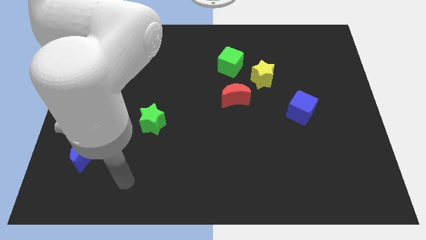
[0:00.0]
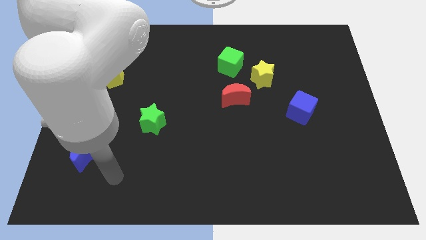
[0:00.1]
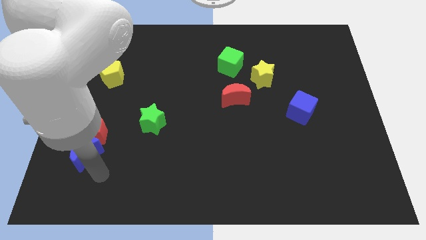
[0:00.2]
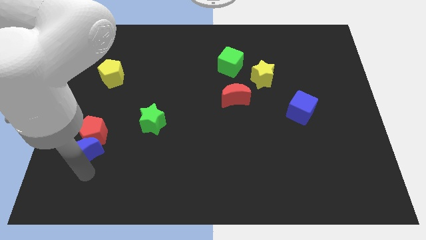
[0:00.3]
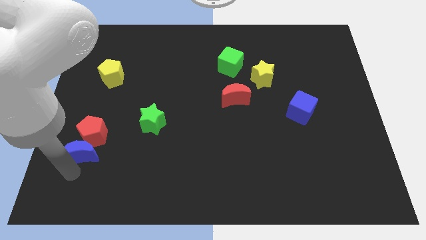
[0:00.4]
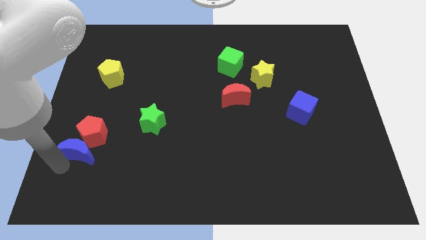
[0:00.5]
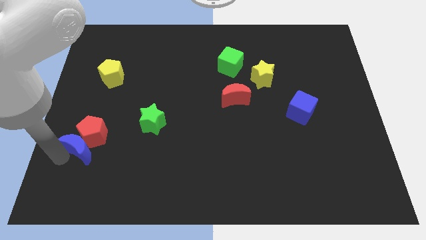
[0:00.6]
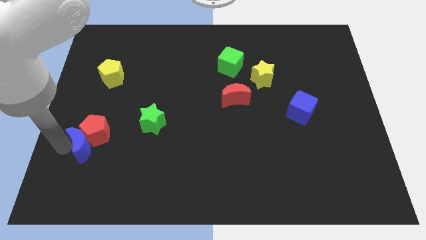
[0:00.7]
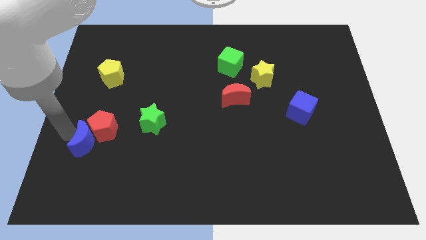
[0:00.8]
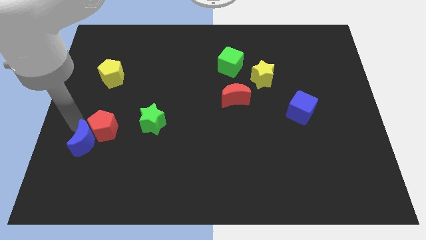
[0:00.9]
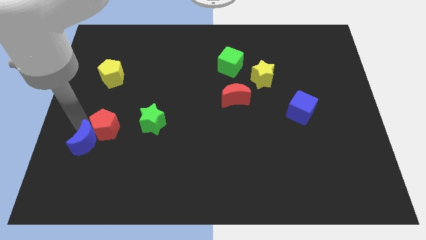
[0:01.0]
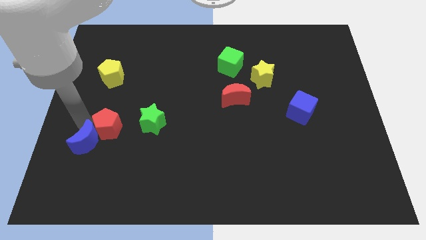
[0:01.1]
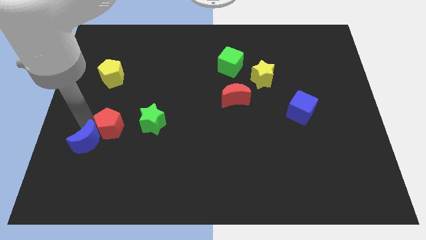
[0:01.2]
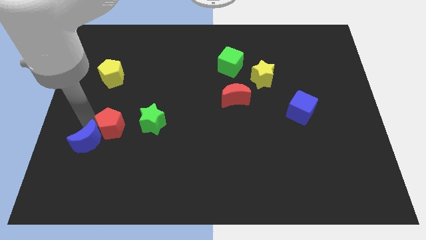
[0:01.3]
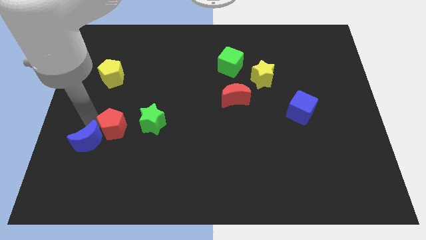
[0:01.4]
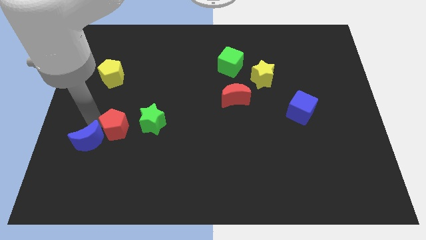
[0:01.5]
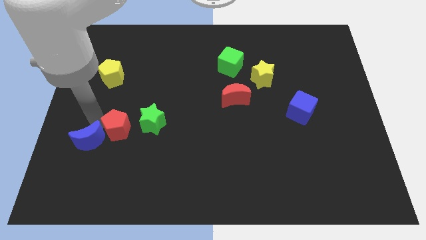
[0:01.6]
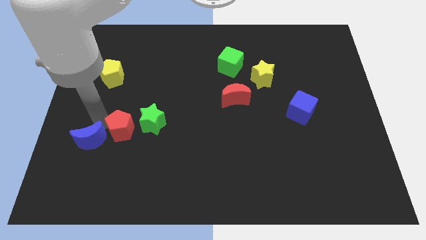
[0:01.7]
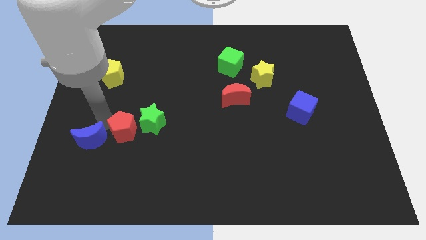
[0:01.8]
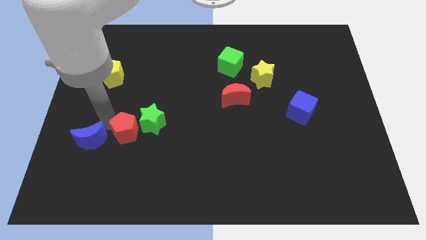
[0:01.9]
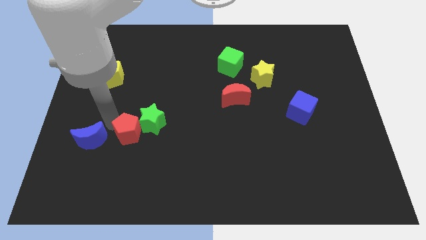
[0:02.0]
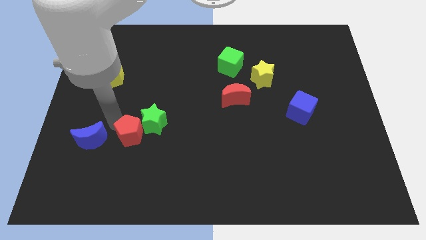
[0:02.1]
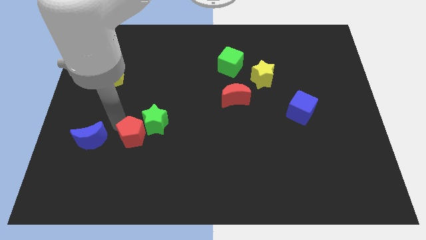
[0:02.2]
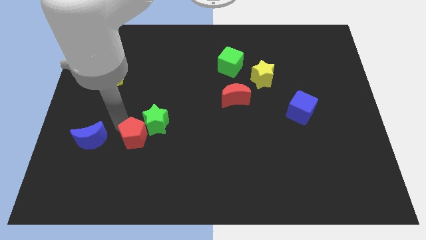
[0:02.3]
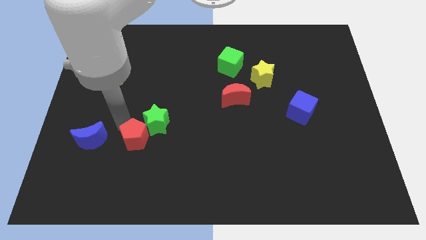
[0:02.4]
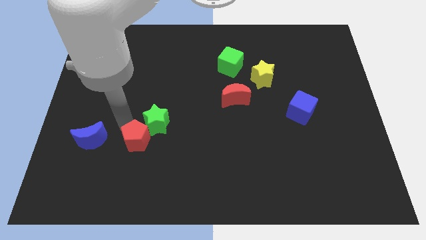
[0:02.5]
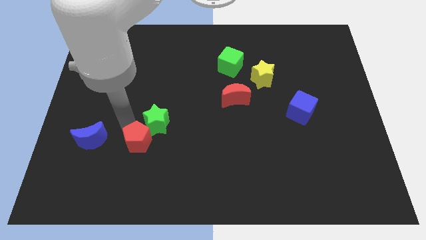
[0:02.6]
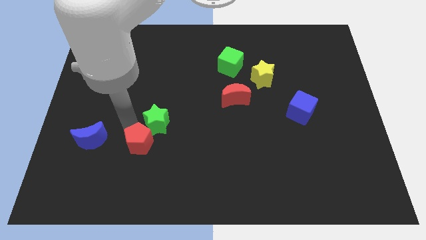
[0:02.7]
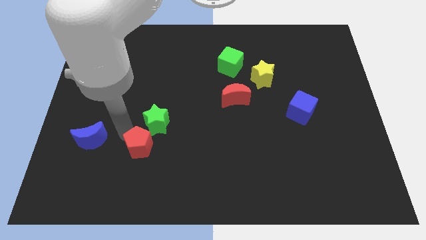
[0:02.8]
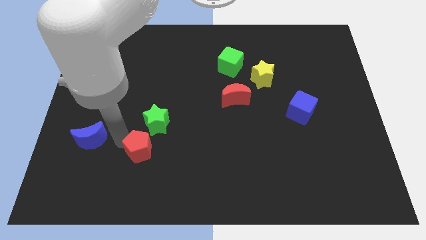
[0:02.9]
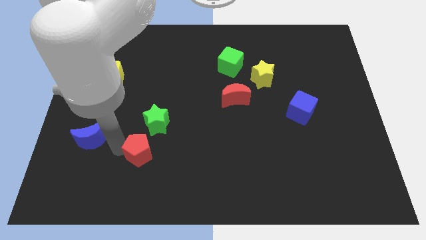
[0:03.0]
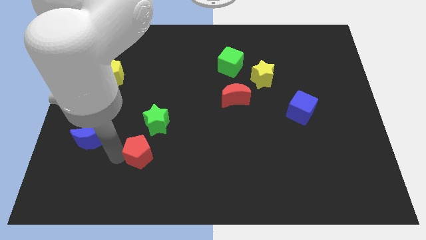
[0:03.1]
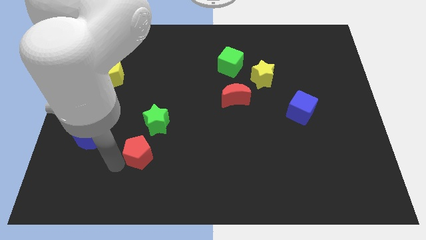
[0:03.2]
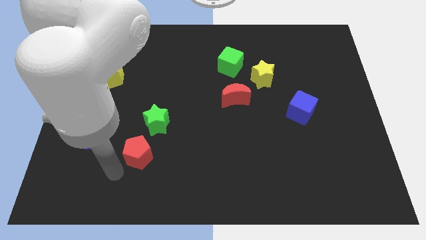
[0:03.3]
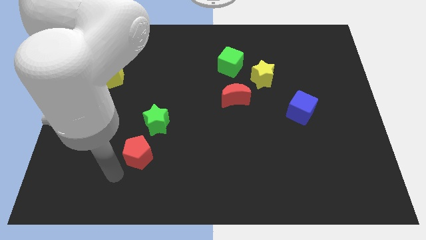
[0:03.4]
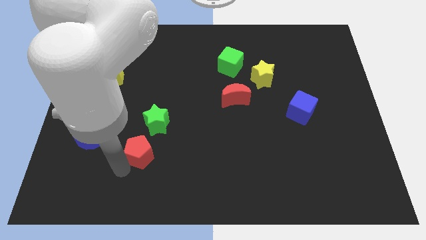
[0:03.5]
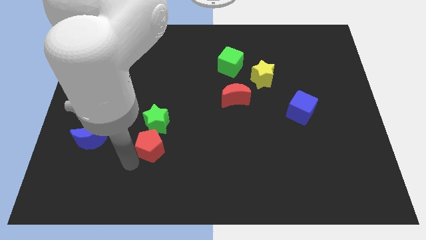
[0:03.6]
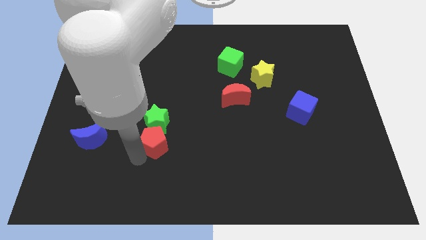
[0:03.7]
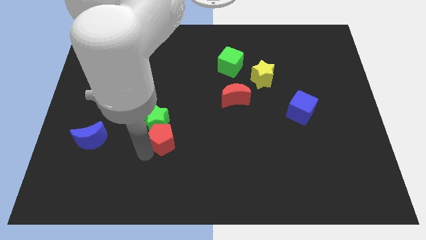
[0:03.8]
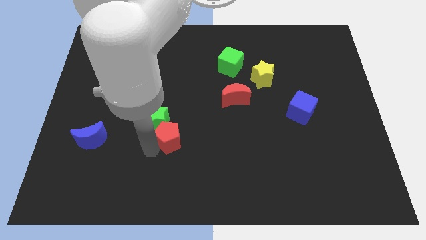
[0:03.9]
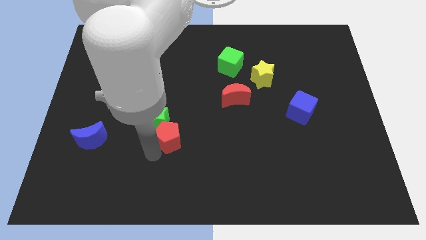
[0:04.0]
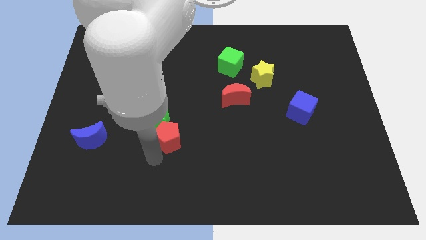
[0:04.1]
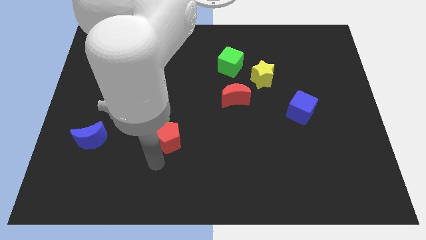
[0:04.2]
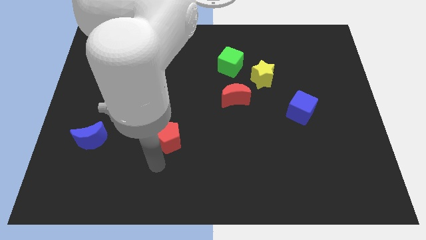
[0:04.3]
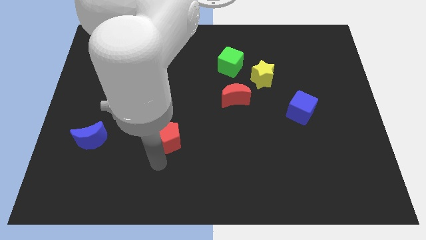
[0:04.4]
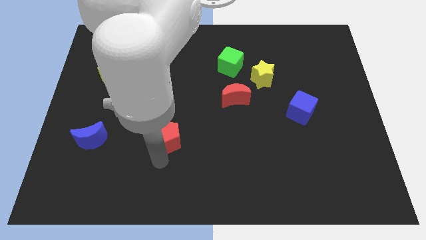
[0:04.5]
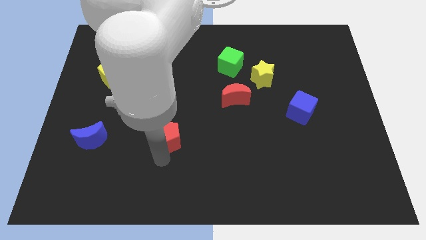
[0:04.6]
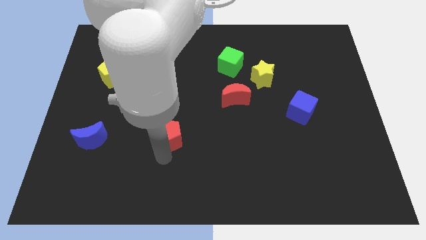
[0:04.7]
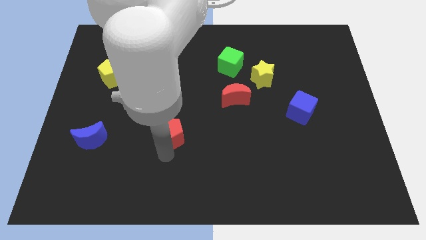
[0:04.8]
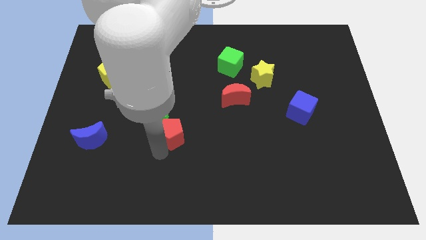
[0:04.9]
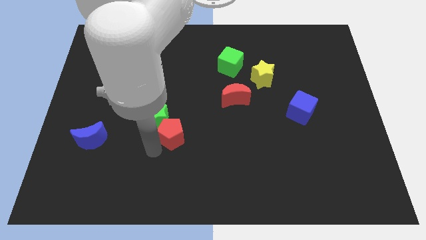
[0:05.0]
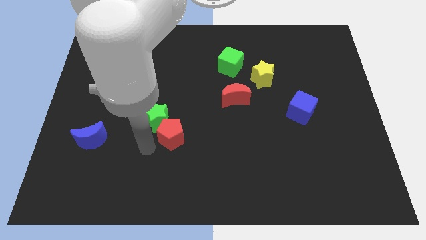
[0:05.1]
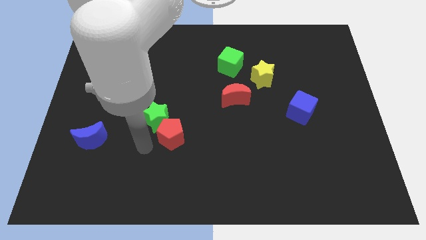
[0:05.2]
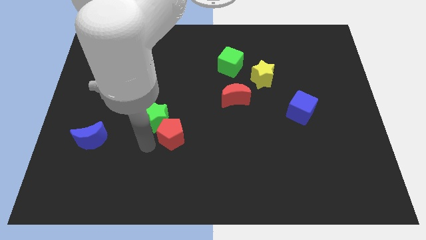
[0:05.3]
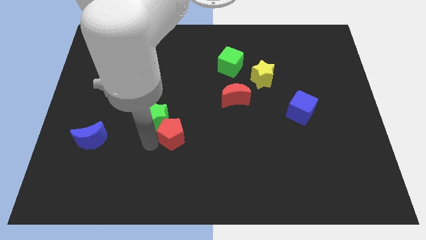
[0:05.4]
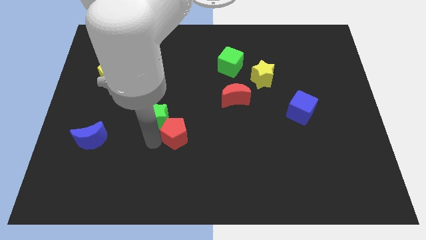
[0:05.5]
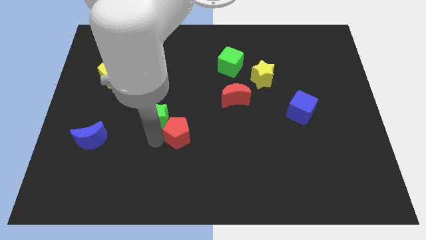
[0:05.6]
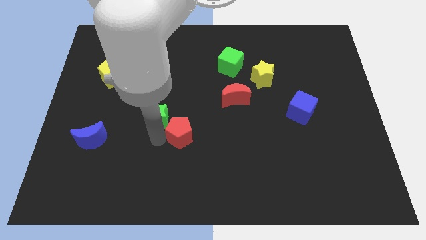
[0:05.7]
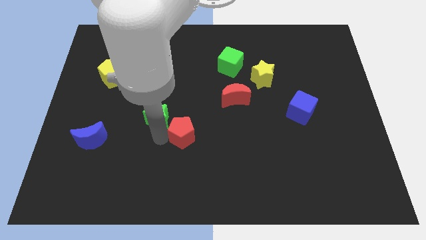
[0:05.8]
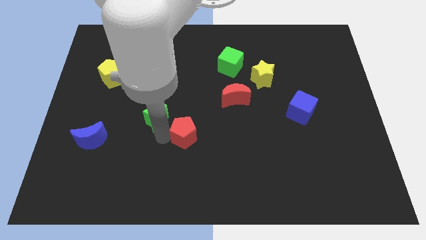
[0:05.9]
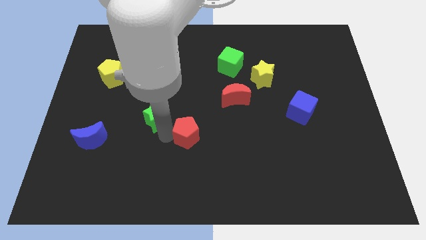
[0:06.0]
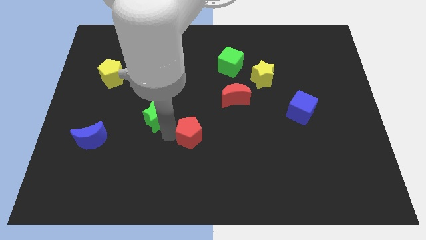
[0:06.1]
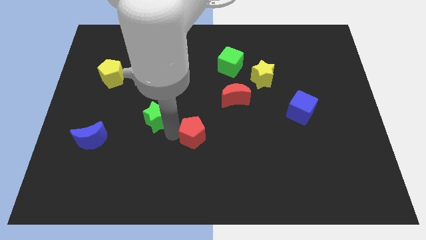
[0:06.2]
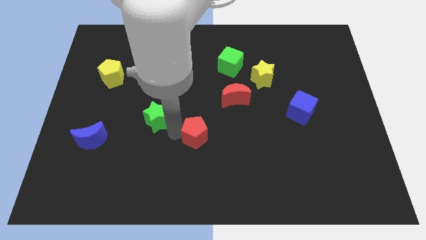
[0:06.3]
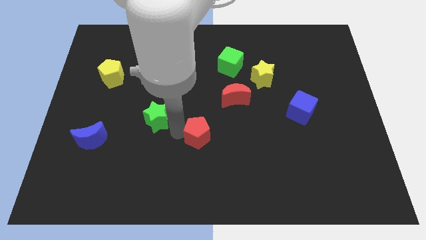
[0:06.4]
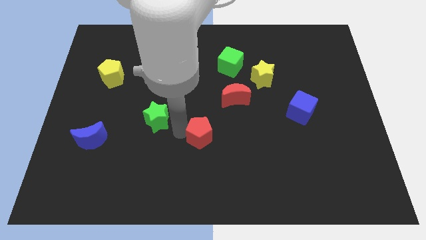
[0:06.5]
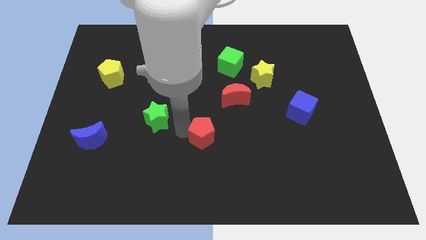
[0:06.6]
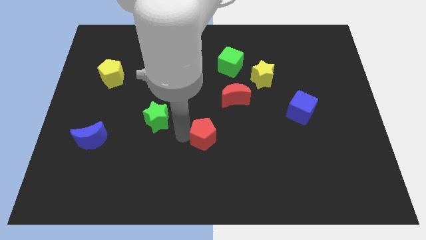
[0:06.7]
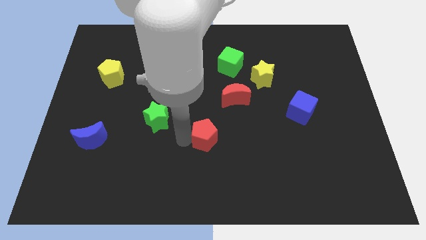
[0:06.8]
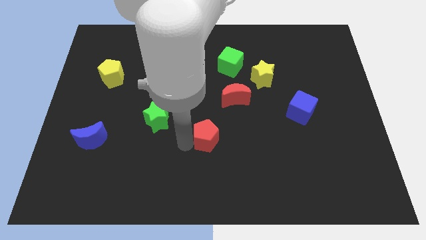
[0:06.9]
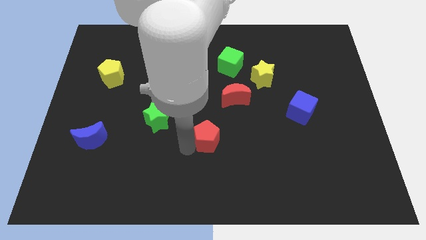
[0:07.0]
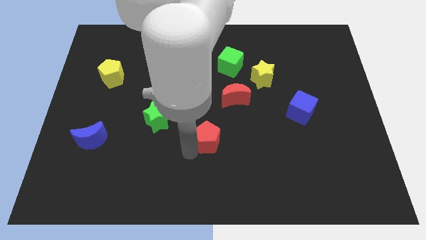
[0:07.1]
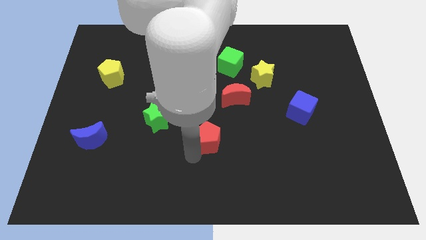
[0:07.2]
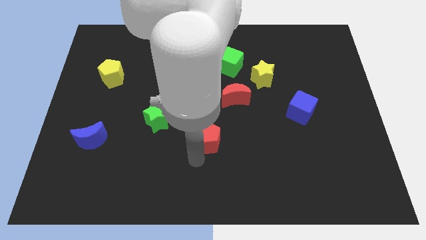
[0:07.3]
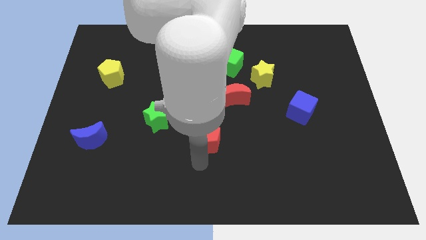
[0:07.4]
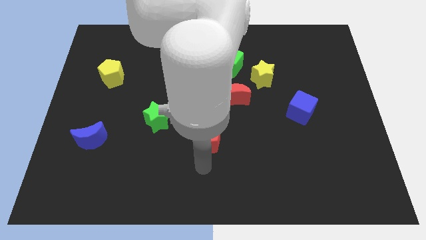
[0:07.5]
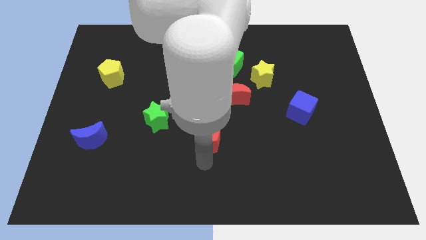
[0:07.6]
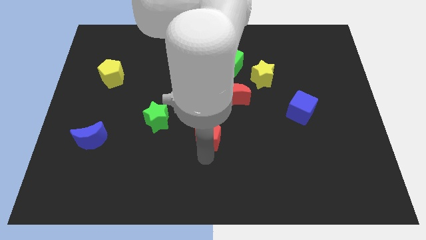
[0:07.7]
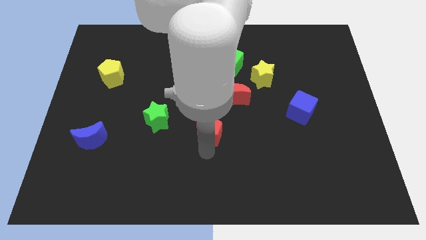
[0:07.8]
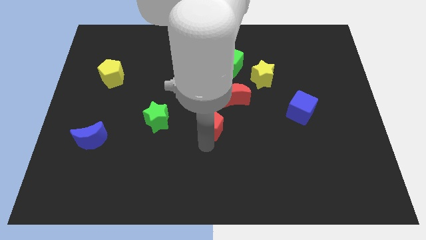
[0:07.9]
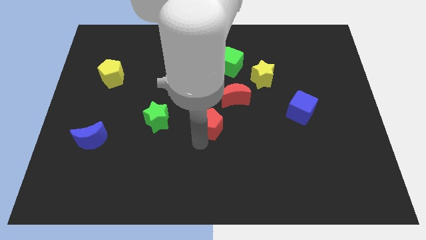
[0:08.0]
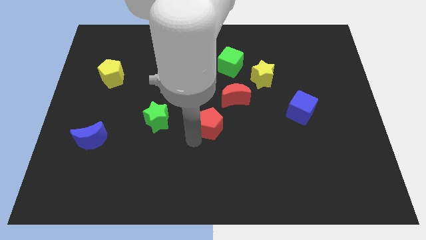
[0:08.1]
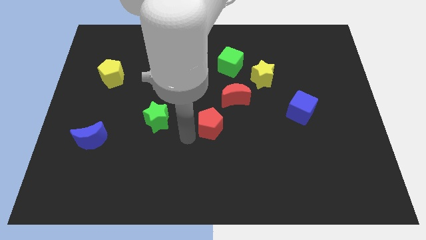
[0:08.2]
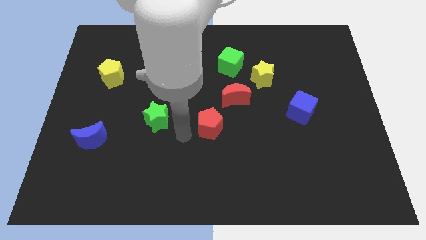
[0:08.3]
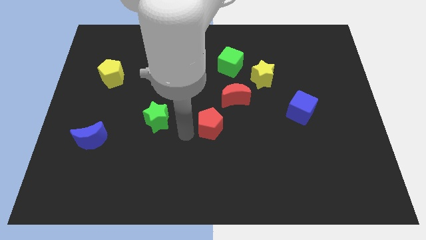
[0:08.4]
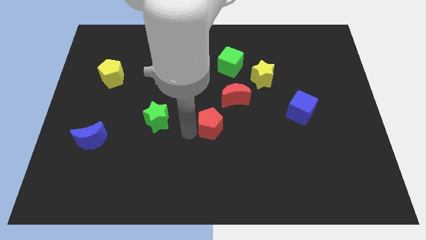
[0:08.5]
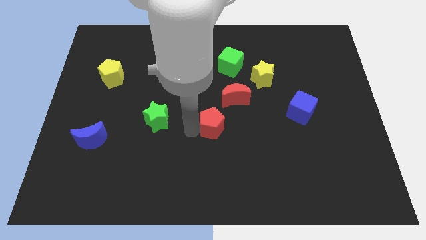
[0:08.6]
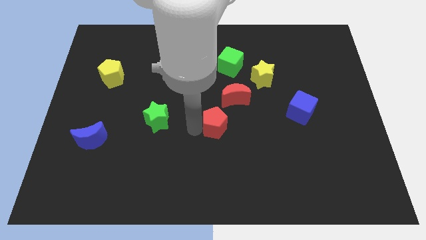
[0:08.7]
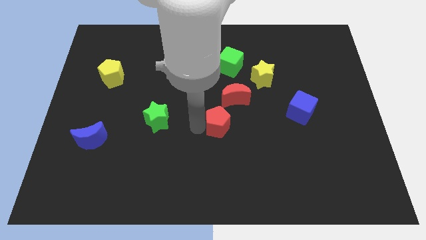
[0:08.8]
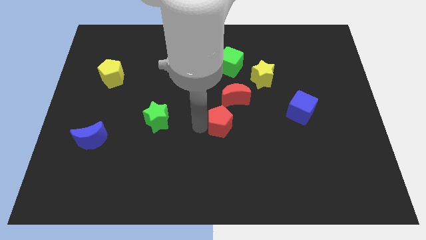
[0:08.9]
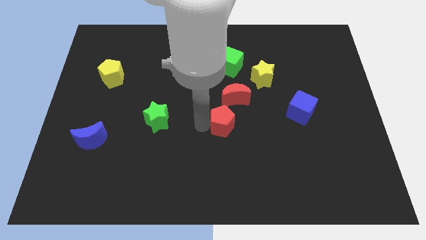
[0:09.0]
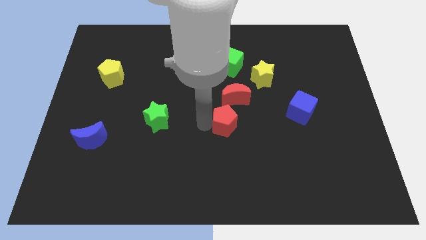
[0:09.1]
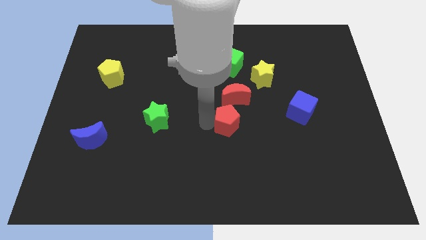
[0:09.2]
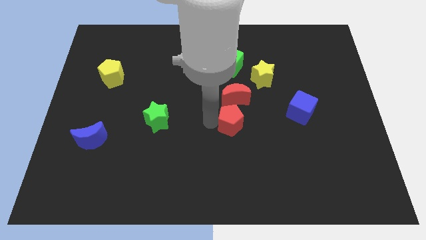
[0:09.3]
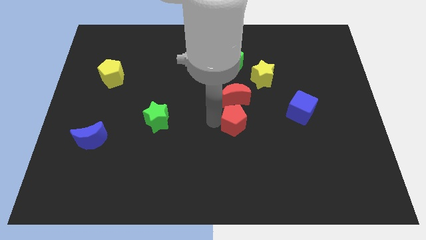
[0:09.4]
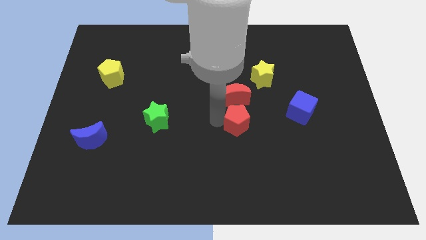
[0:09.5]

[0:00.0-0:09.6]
put the red pentagon left of the blue cube
